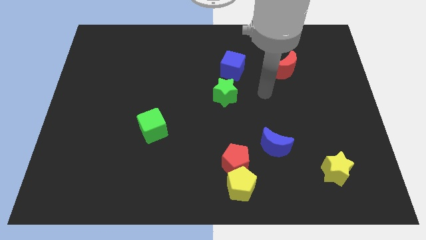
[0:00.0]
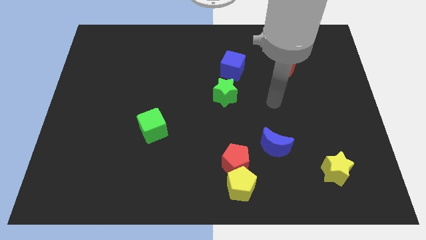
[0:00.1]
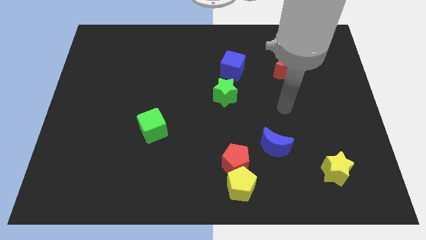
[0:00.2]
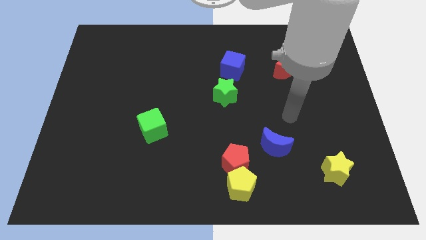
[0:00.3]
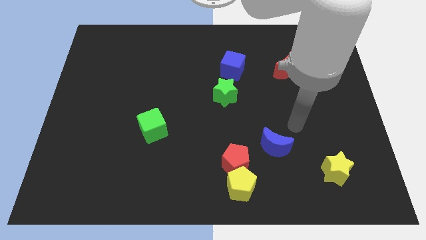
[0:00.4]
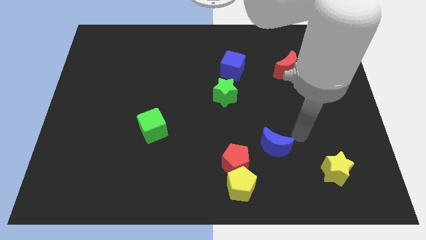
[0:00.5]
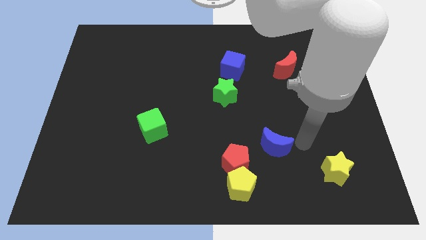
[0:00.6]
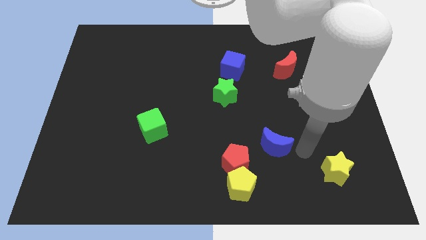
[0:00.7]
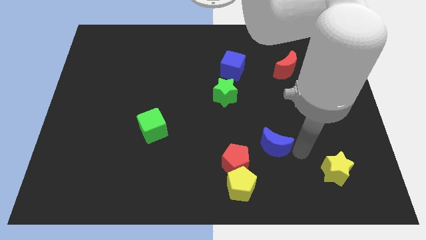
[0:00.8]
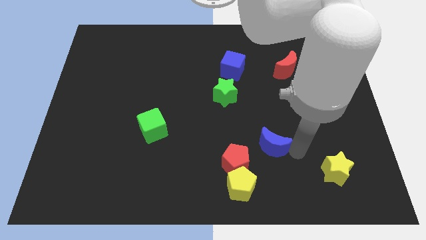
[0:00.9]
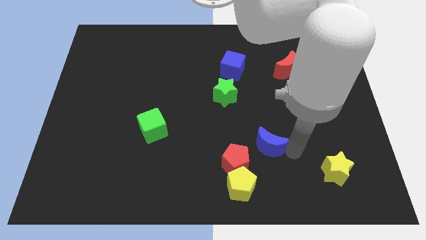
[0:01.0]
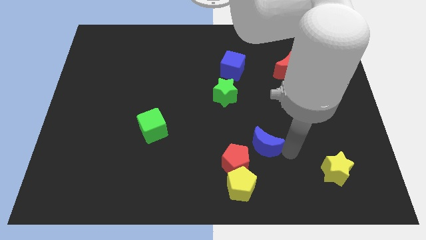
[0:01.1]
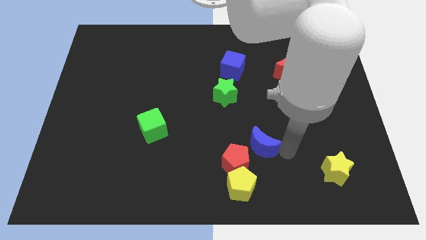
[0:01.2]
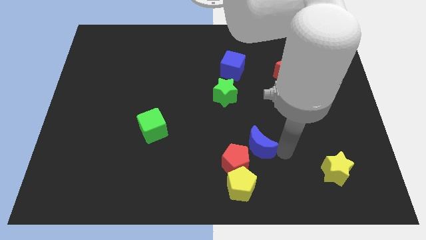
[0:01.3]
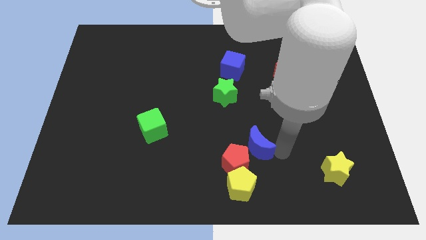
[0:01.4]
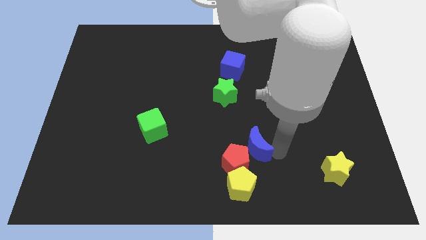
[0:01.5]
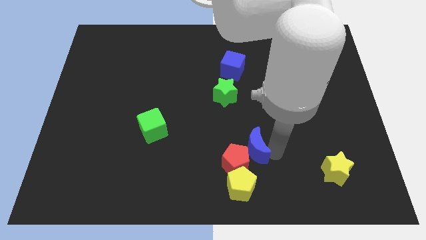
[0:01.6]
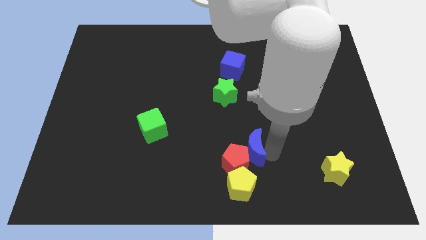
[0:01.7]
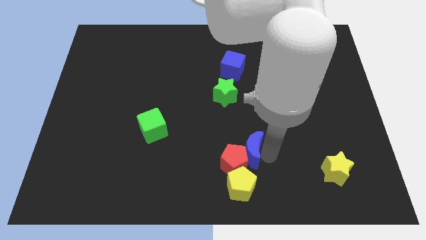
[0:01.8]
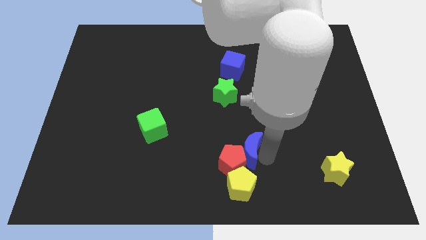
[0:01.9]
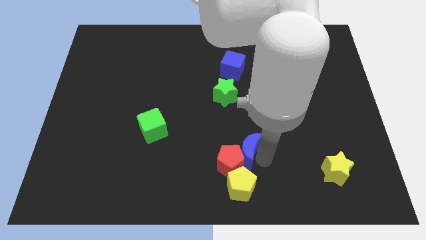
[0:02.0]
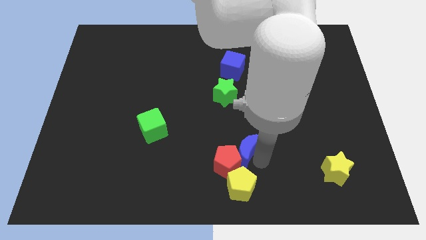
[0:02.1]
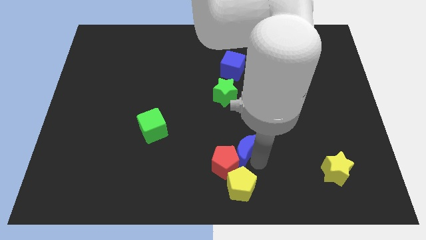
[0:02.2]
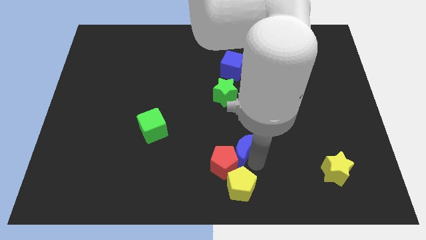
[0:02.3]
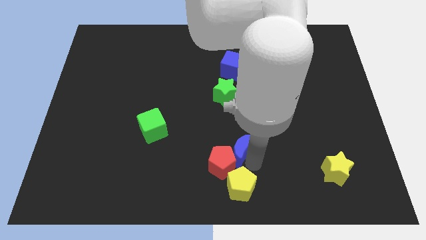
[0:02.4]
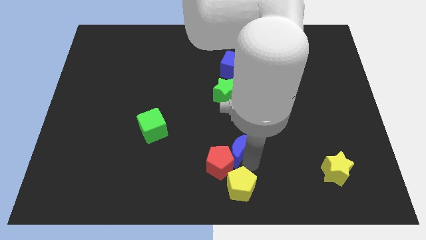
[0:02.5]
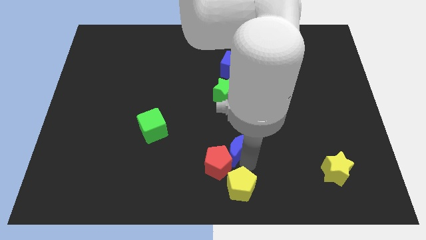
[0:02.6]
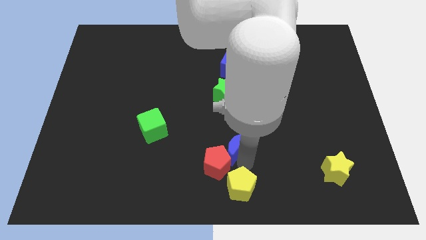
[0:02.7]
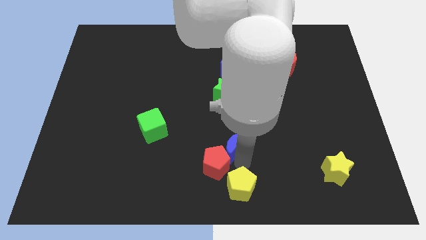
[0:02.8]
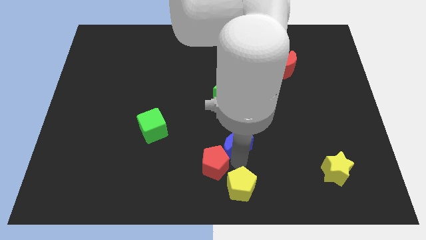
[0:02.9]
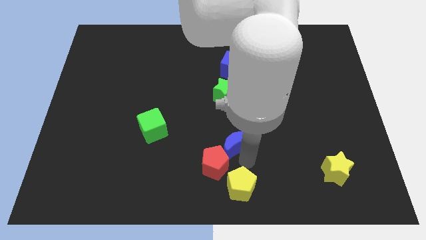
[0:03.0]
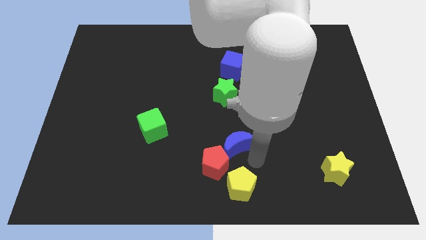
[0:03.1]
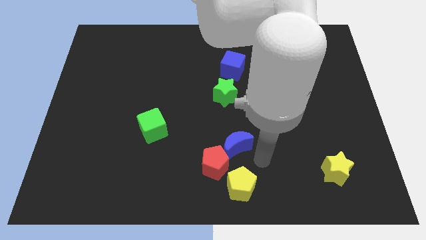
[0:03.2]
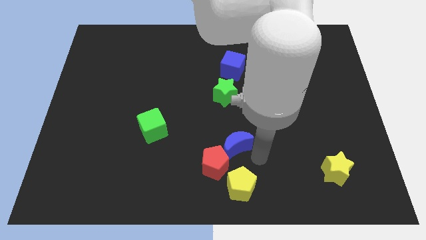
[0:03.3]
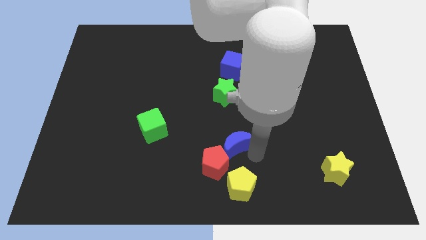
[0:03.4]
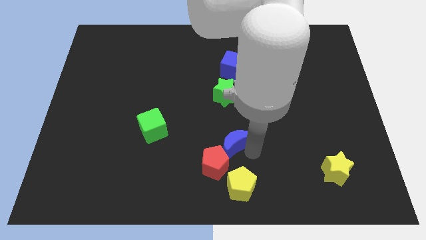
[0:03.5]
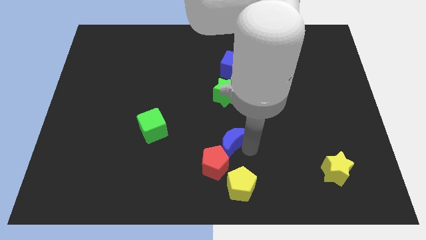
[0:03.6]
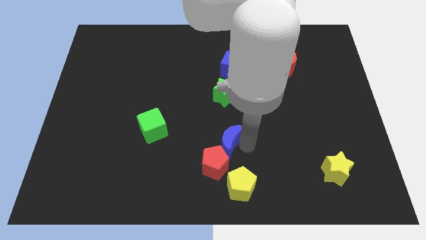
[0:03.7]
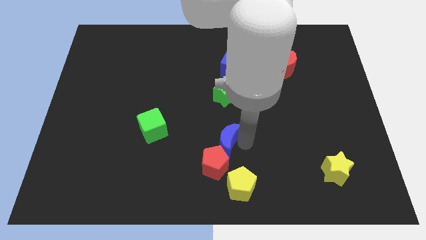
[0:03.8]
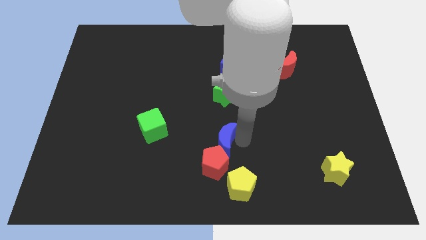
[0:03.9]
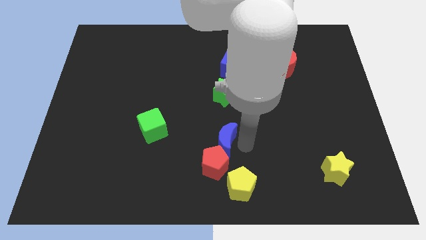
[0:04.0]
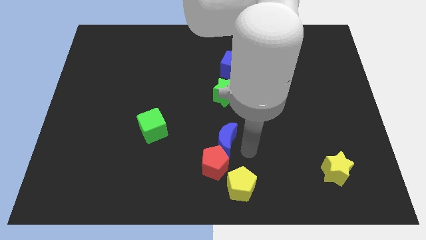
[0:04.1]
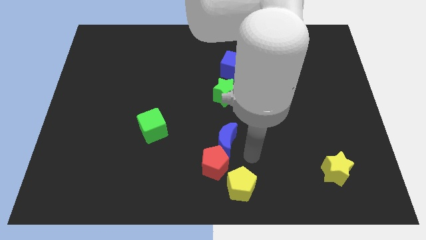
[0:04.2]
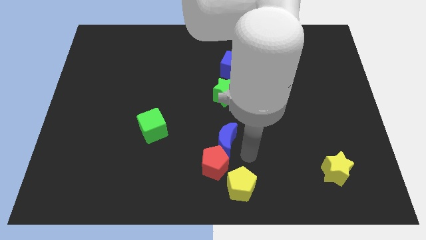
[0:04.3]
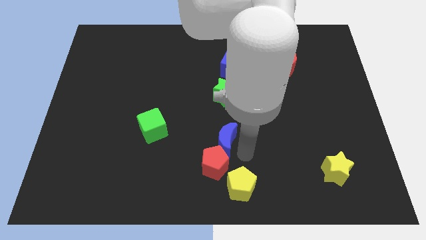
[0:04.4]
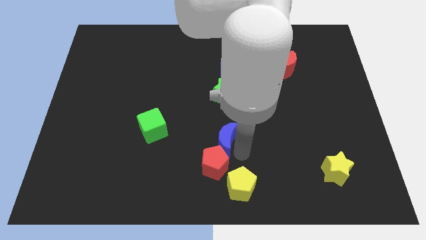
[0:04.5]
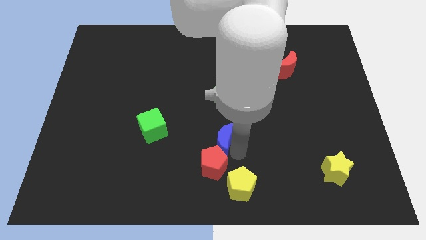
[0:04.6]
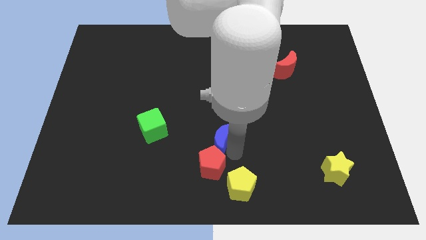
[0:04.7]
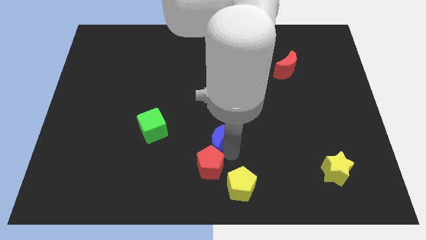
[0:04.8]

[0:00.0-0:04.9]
push the blue moon to the right side of the green cube

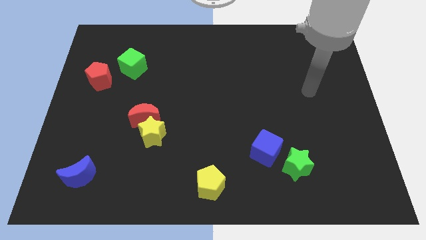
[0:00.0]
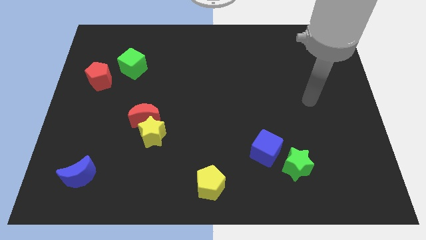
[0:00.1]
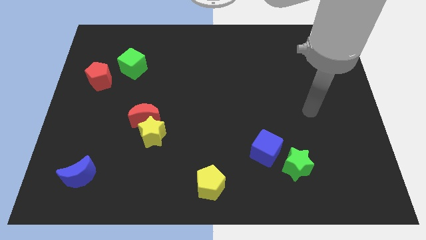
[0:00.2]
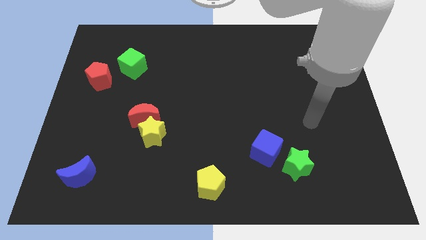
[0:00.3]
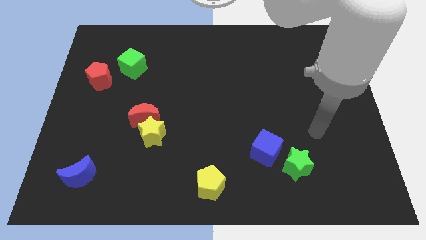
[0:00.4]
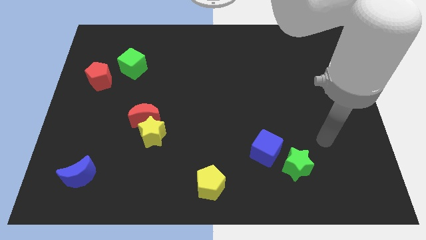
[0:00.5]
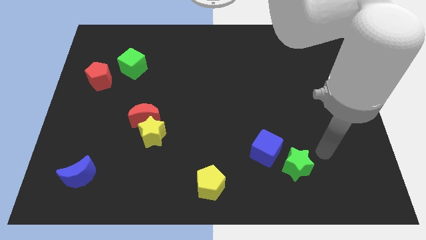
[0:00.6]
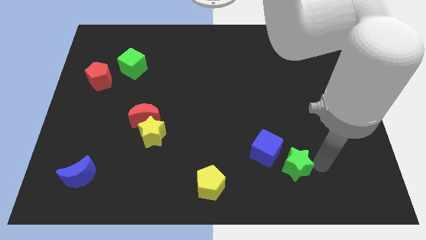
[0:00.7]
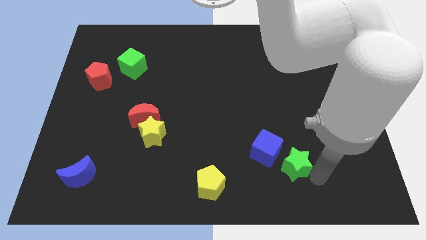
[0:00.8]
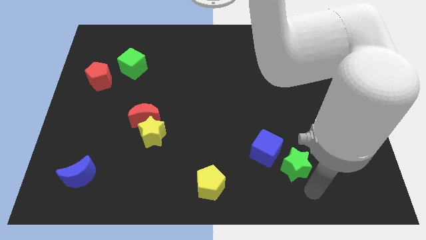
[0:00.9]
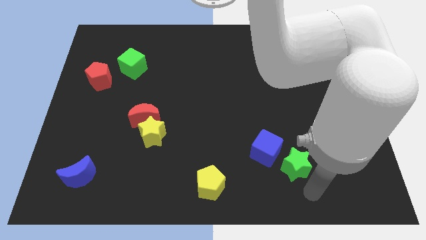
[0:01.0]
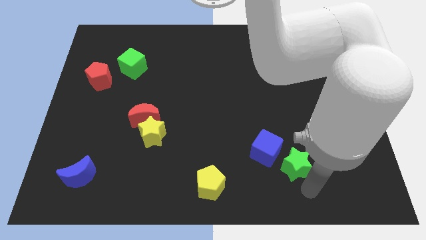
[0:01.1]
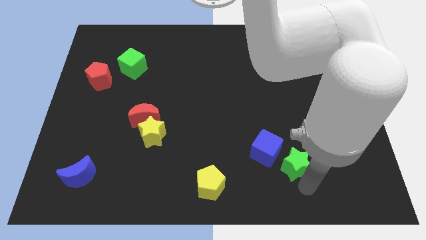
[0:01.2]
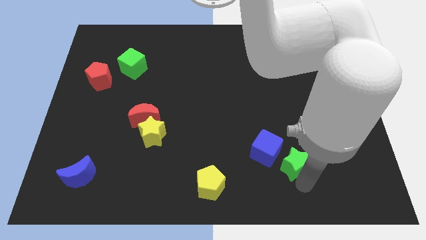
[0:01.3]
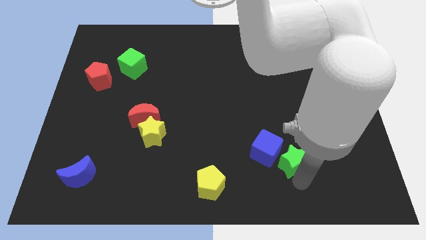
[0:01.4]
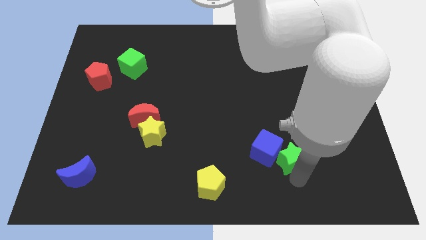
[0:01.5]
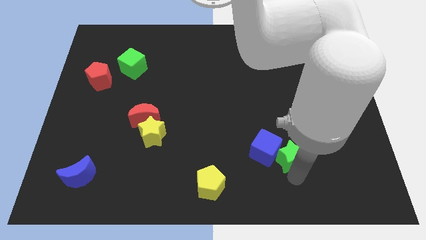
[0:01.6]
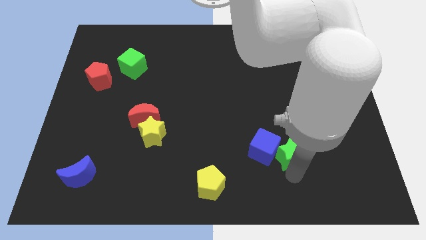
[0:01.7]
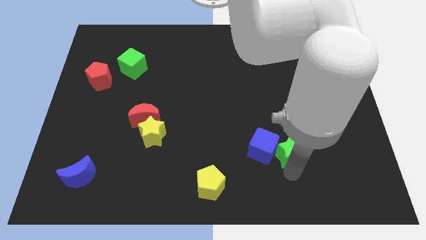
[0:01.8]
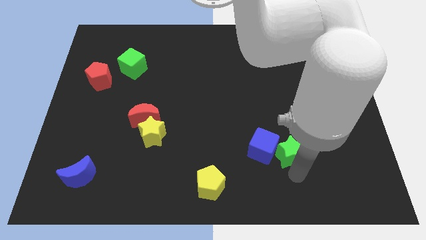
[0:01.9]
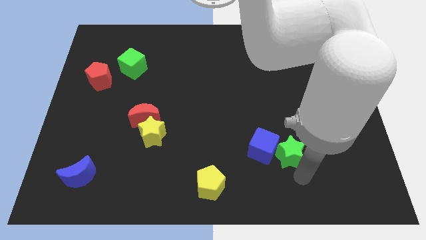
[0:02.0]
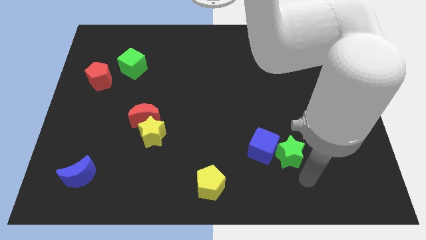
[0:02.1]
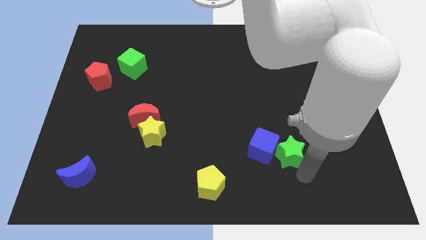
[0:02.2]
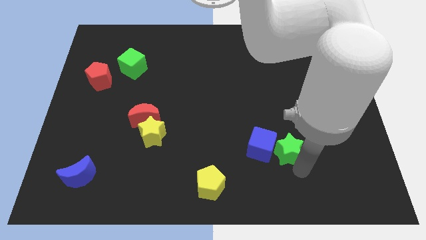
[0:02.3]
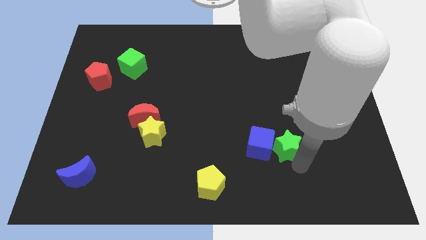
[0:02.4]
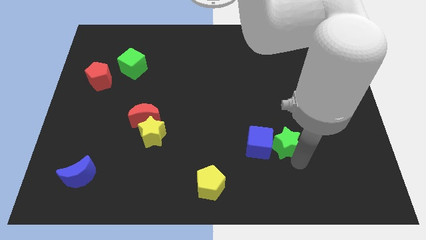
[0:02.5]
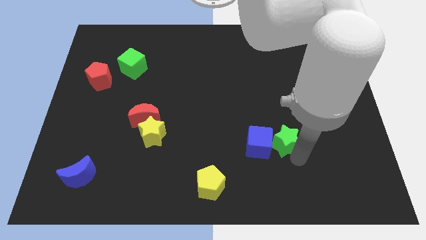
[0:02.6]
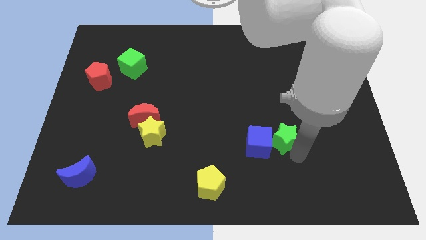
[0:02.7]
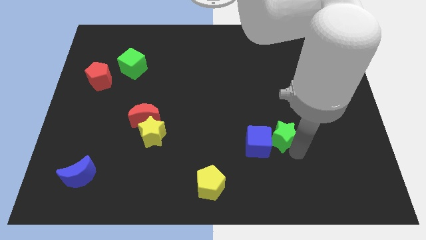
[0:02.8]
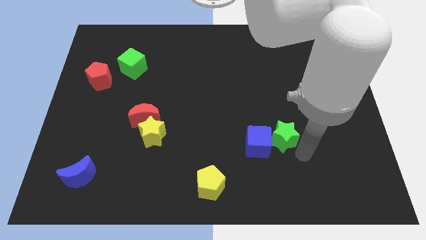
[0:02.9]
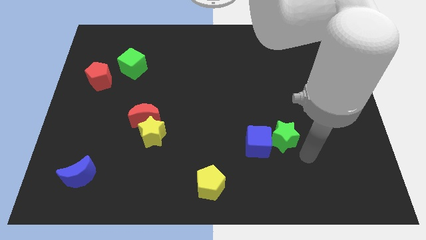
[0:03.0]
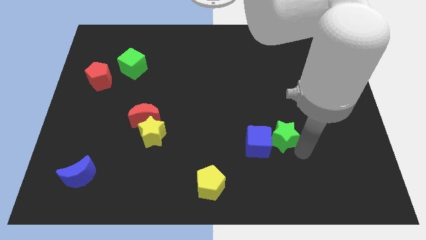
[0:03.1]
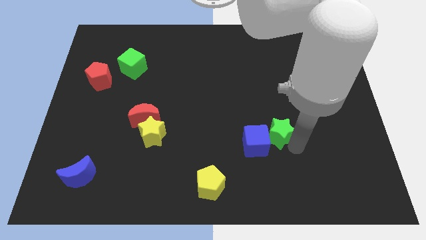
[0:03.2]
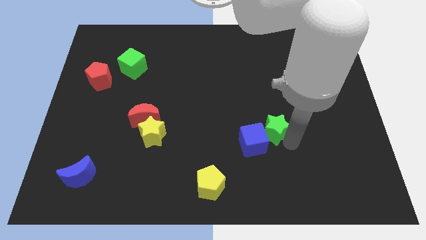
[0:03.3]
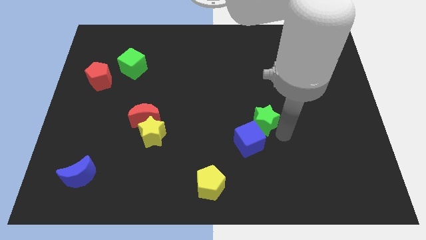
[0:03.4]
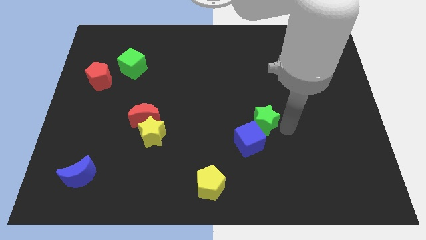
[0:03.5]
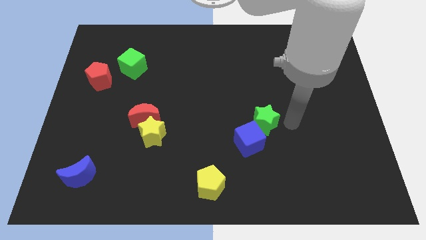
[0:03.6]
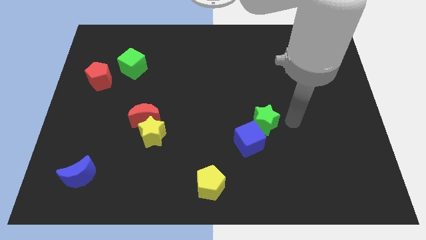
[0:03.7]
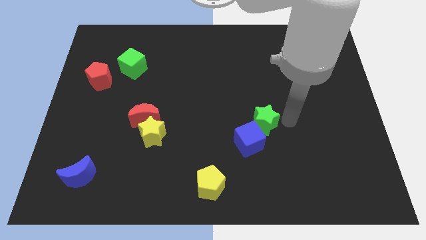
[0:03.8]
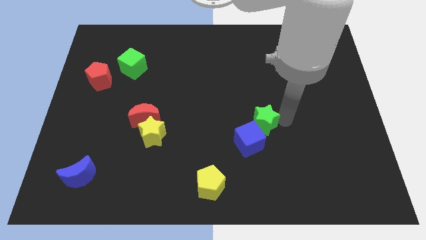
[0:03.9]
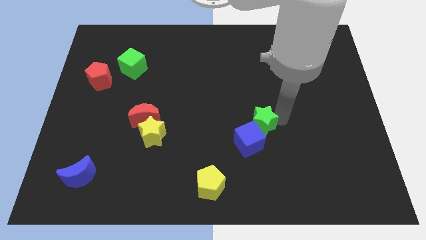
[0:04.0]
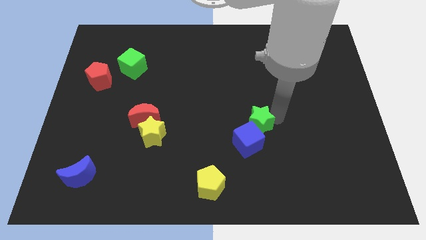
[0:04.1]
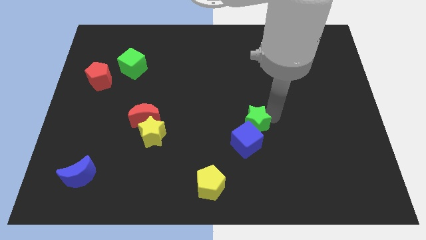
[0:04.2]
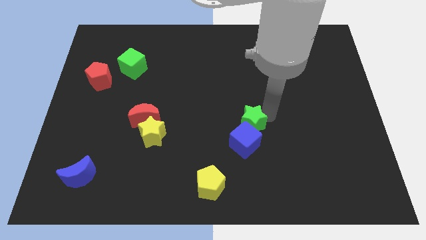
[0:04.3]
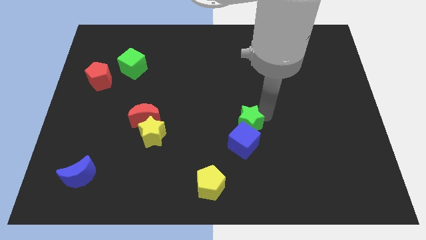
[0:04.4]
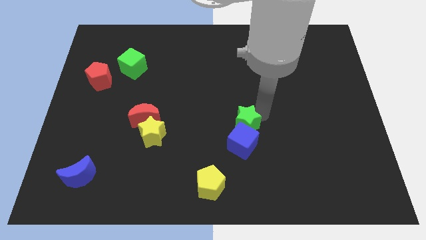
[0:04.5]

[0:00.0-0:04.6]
slide the green star diagonally up and to the left of the blue cube
